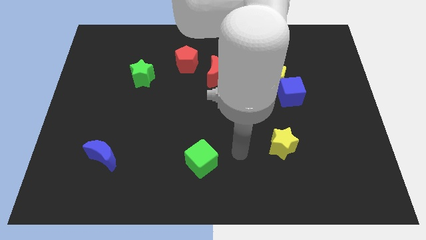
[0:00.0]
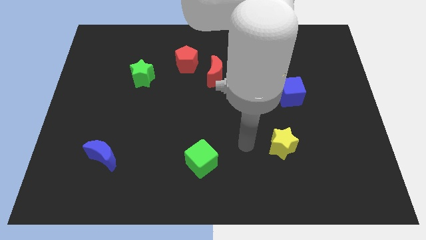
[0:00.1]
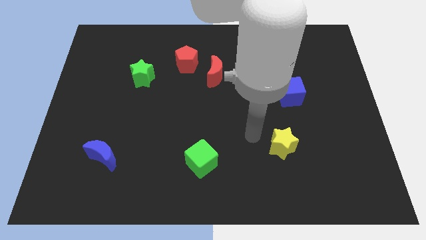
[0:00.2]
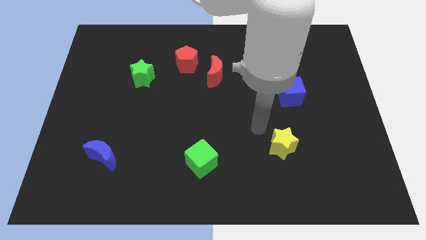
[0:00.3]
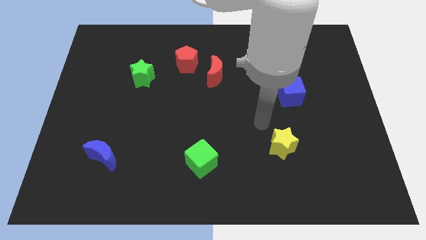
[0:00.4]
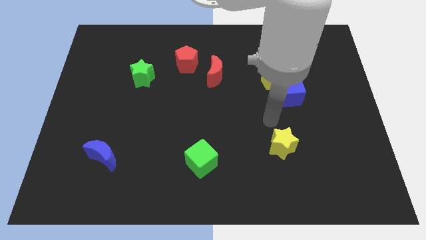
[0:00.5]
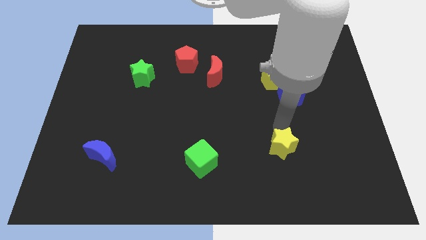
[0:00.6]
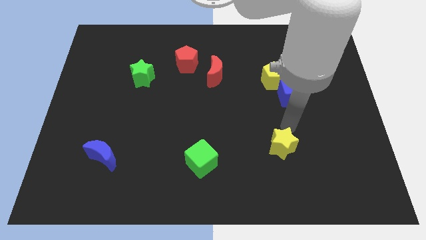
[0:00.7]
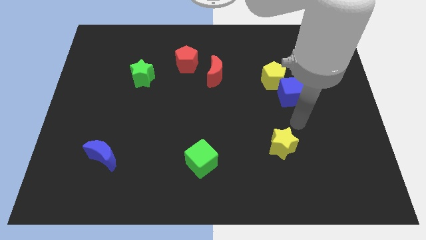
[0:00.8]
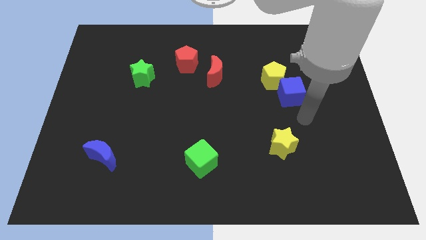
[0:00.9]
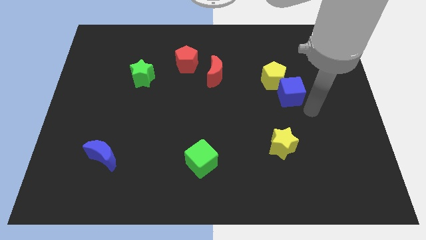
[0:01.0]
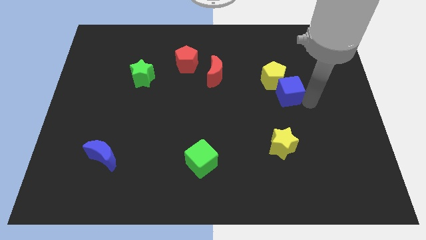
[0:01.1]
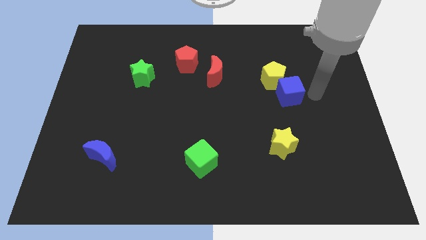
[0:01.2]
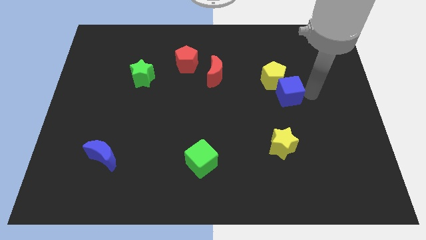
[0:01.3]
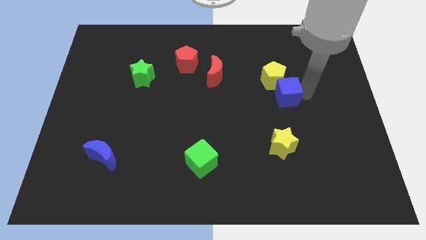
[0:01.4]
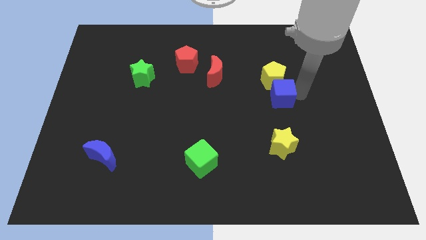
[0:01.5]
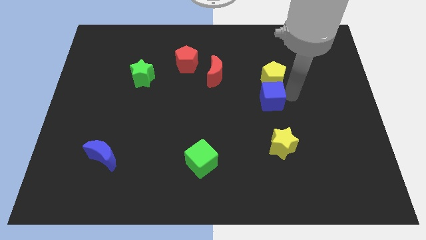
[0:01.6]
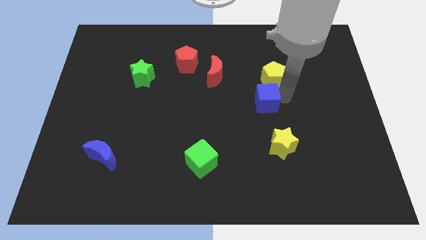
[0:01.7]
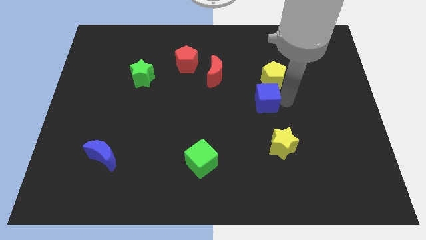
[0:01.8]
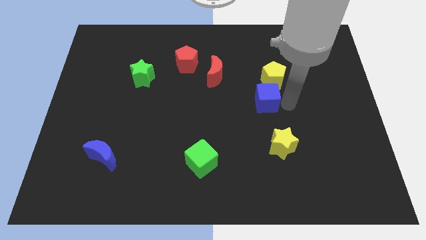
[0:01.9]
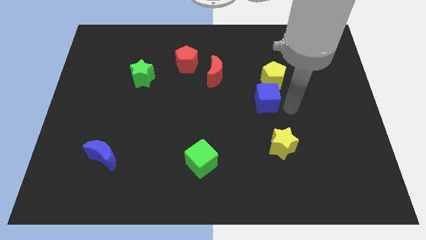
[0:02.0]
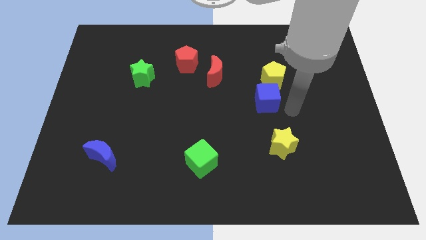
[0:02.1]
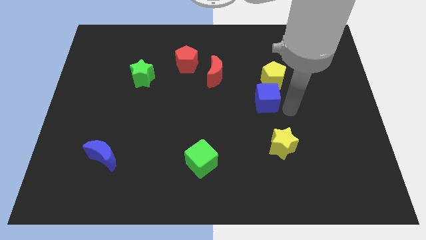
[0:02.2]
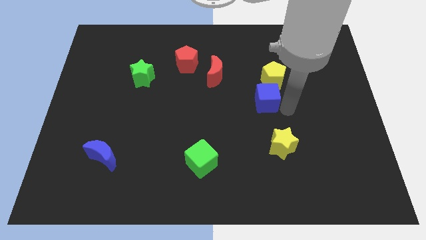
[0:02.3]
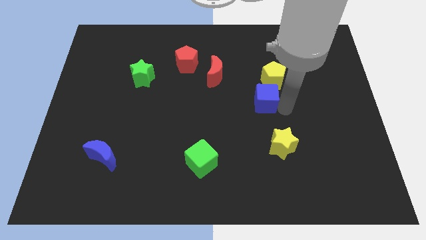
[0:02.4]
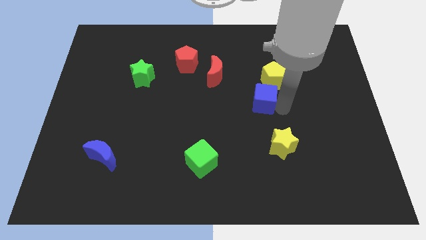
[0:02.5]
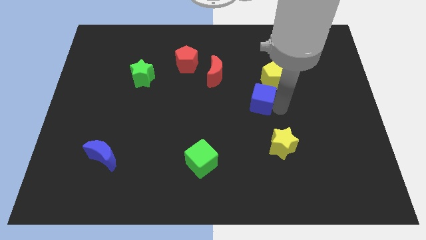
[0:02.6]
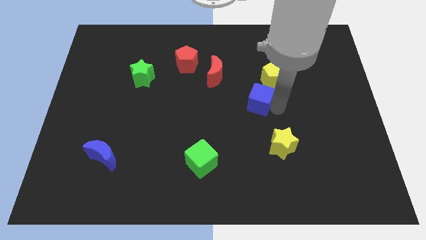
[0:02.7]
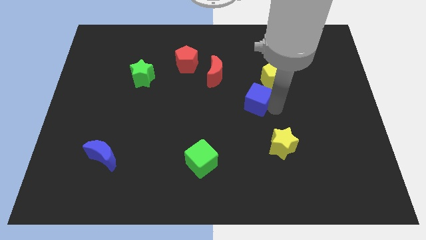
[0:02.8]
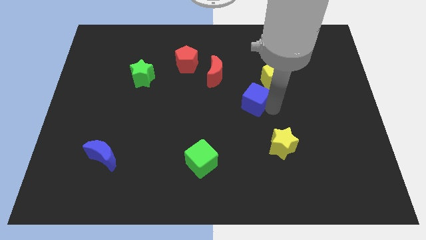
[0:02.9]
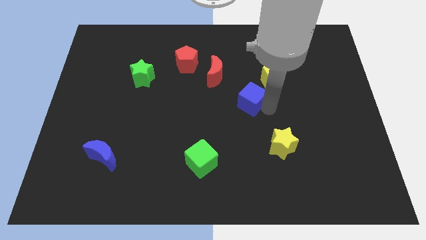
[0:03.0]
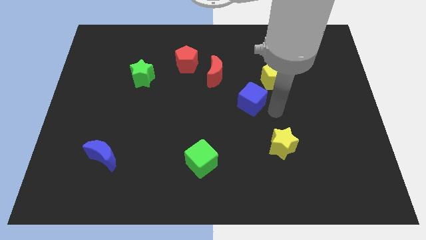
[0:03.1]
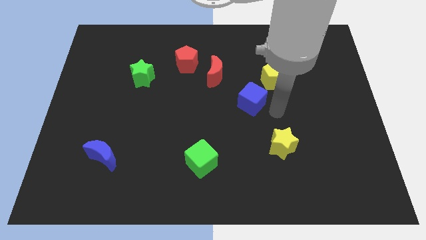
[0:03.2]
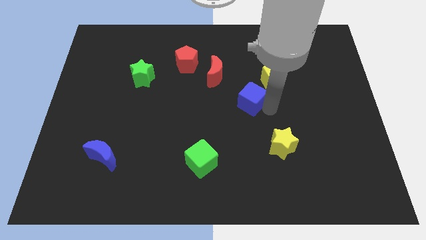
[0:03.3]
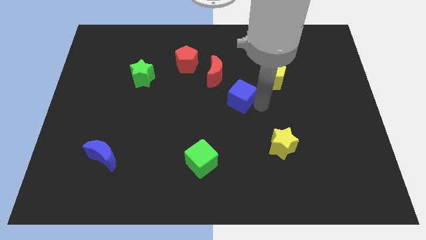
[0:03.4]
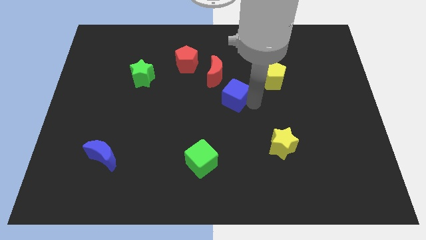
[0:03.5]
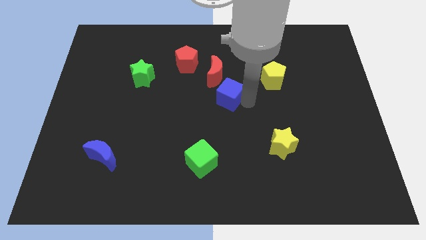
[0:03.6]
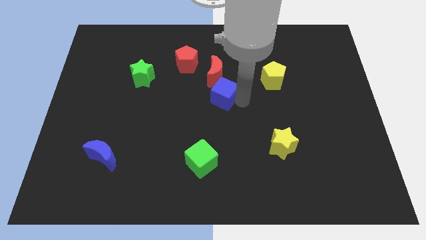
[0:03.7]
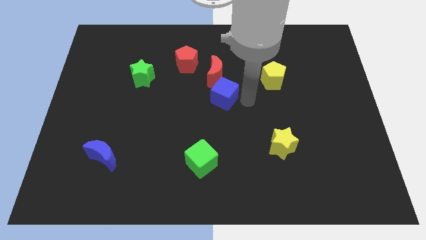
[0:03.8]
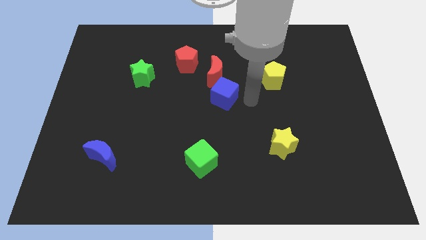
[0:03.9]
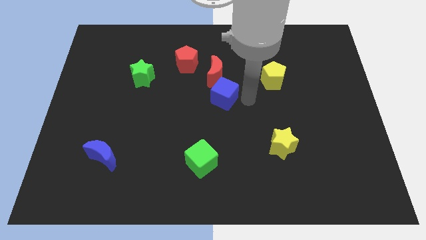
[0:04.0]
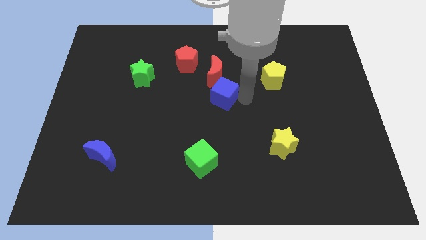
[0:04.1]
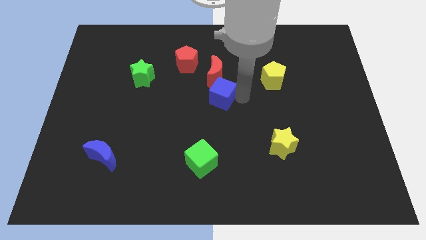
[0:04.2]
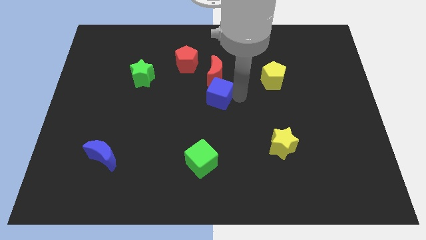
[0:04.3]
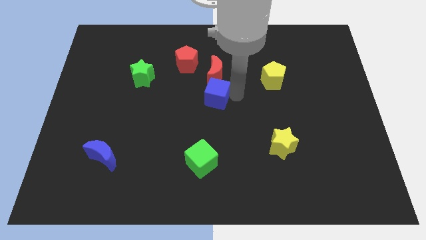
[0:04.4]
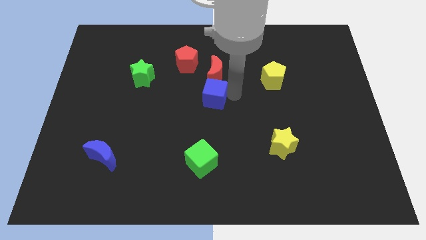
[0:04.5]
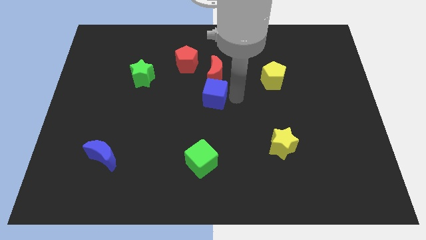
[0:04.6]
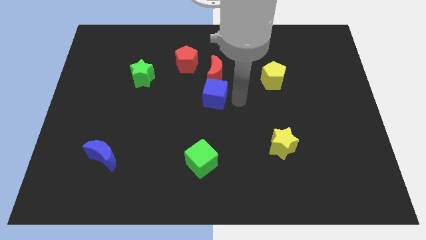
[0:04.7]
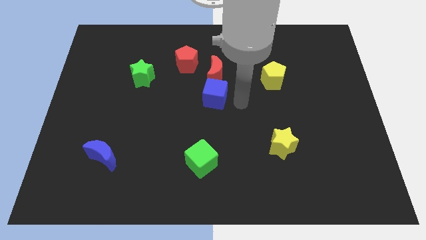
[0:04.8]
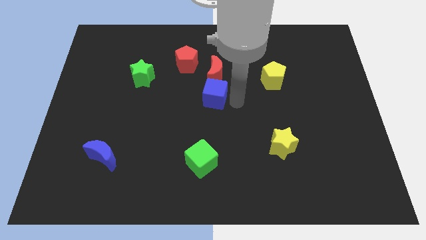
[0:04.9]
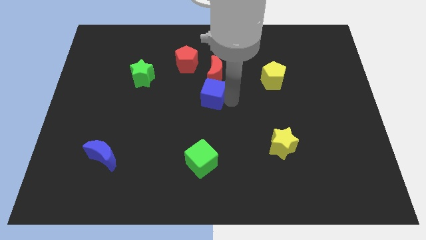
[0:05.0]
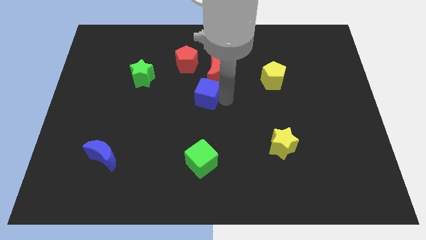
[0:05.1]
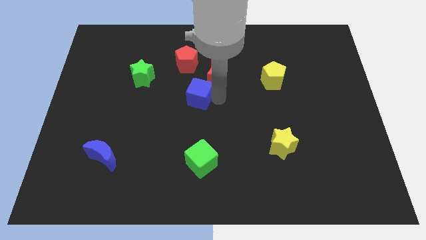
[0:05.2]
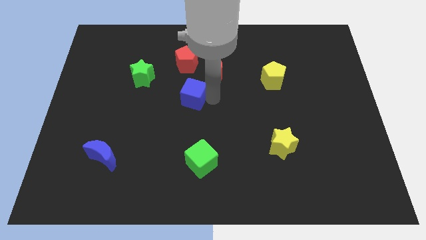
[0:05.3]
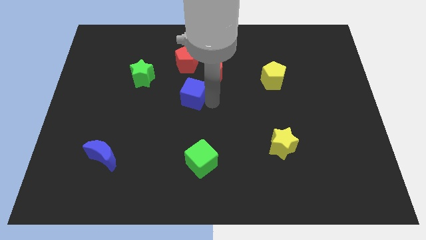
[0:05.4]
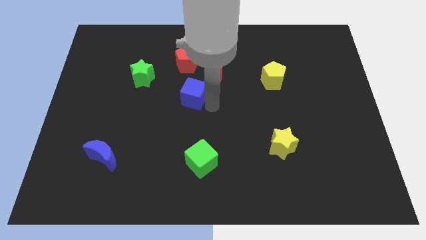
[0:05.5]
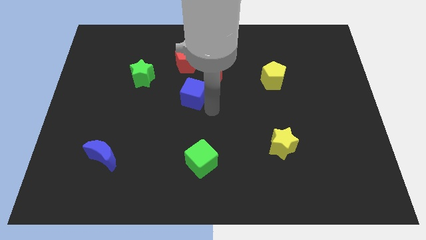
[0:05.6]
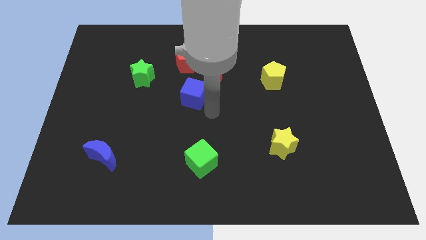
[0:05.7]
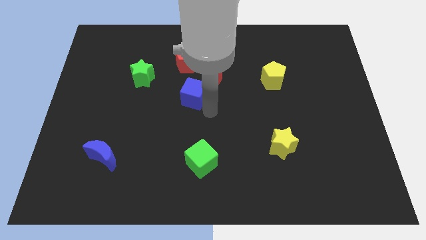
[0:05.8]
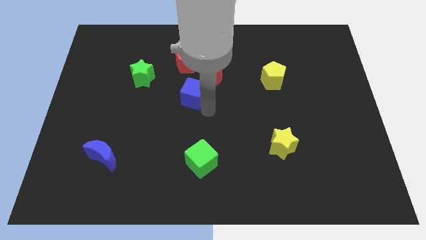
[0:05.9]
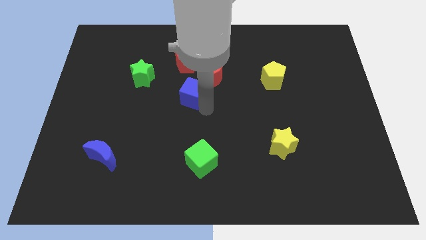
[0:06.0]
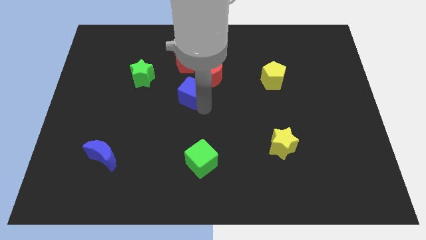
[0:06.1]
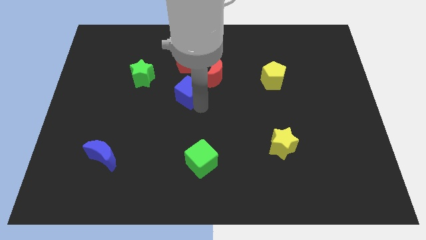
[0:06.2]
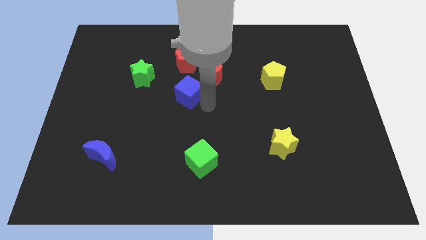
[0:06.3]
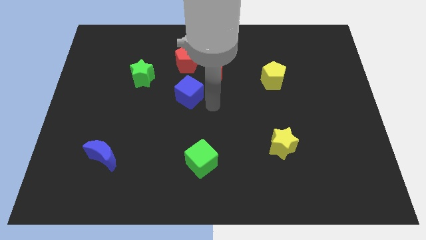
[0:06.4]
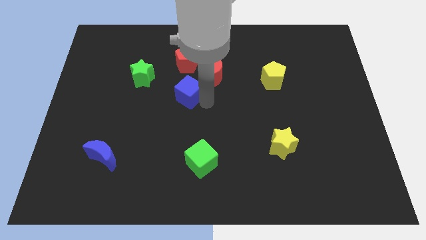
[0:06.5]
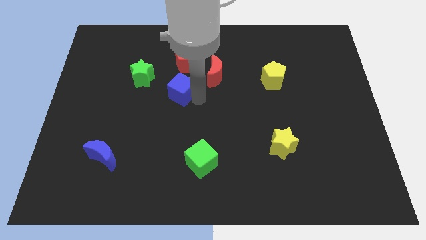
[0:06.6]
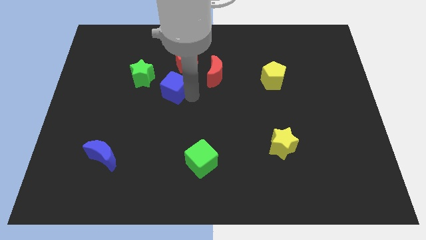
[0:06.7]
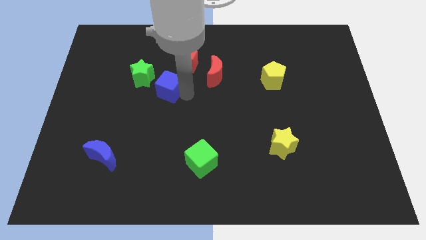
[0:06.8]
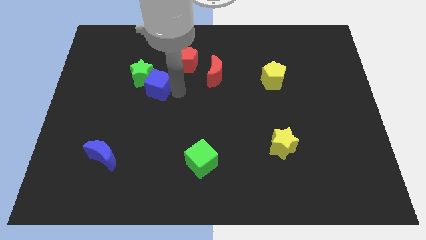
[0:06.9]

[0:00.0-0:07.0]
move the blue cube next to the green star

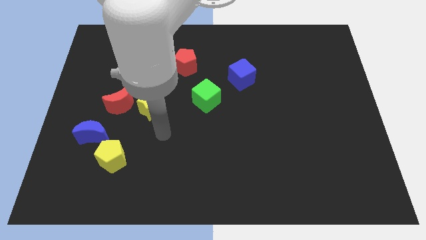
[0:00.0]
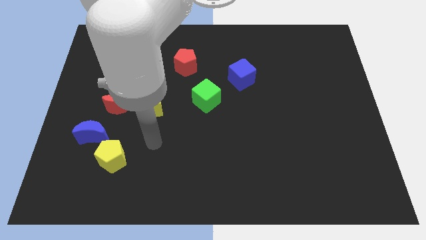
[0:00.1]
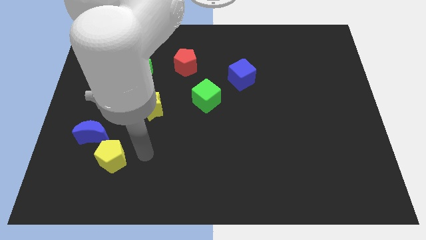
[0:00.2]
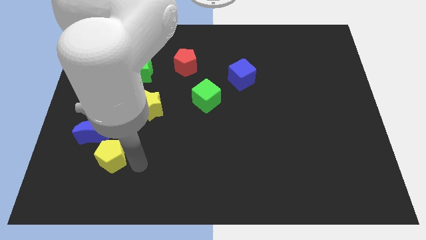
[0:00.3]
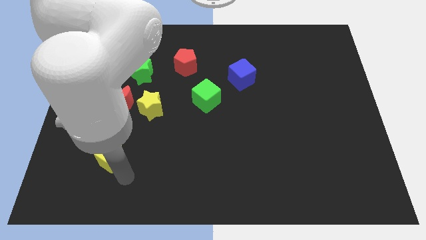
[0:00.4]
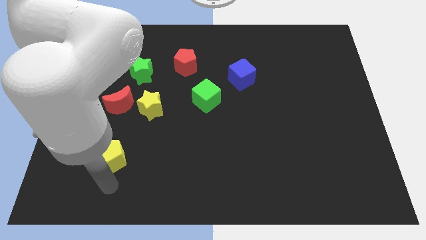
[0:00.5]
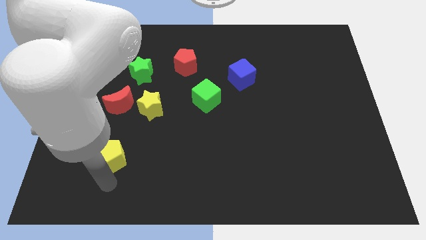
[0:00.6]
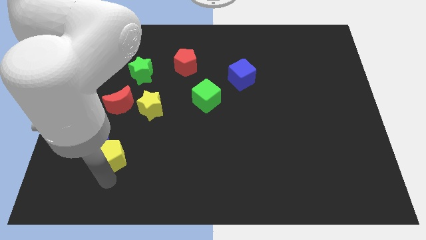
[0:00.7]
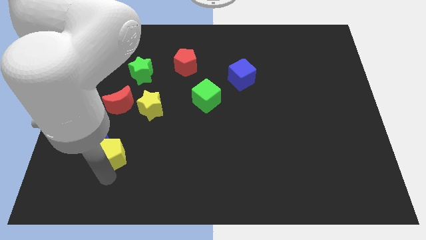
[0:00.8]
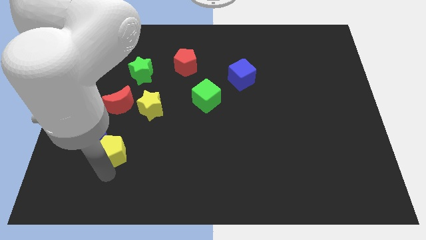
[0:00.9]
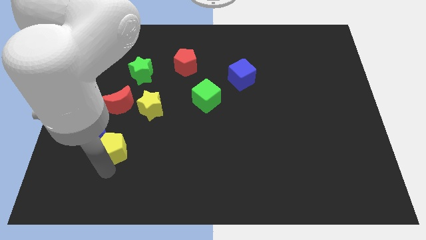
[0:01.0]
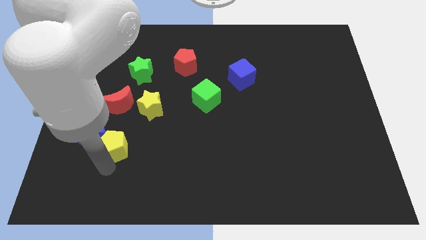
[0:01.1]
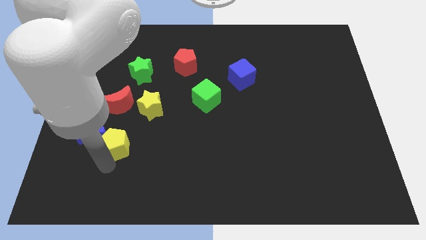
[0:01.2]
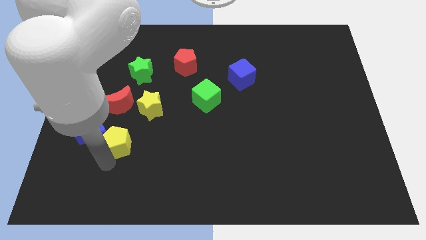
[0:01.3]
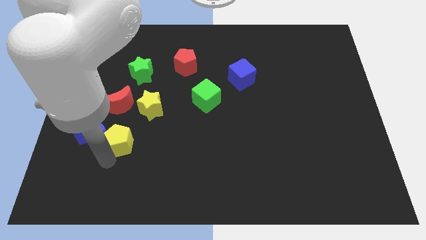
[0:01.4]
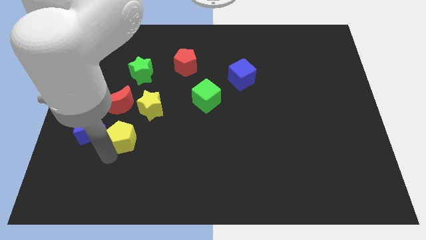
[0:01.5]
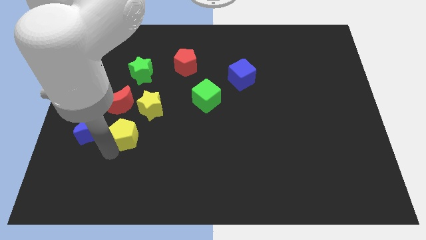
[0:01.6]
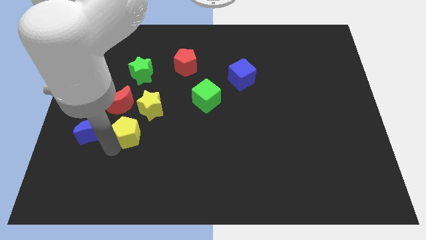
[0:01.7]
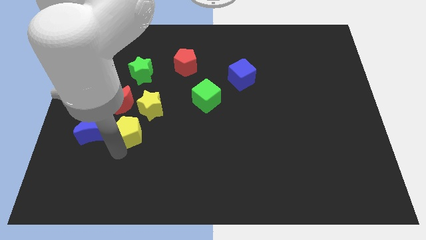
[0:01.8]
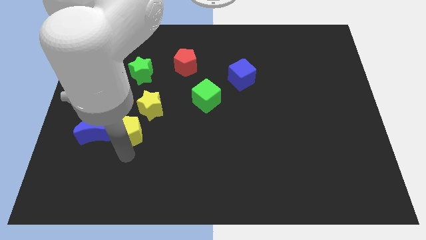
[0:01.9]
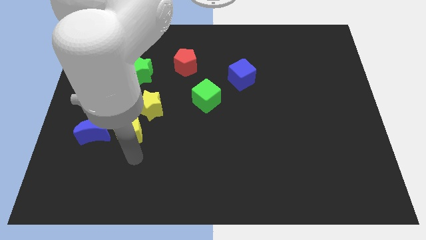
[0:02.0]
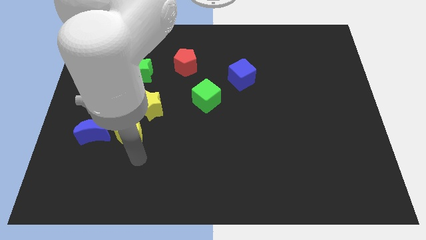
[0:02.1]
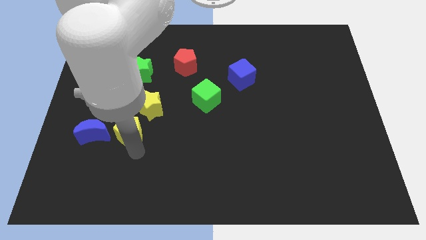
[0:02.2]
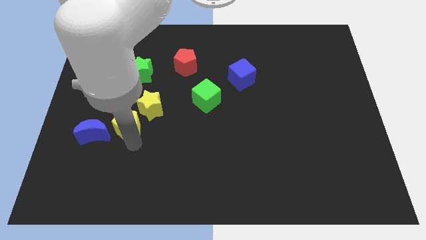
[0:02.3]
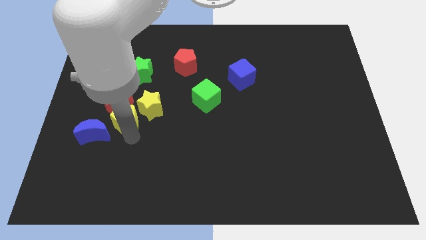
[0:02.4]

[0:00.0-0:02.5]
put the yellow pentagon next to the red moon
